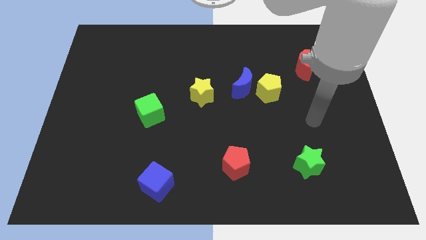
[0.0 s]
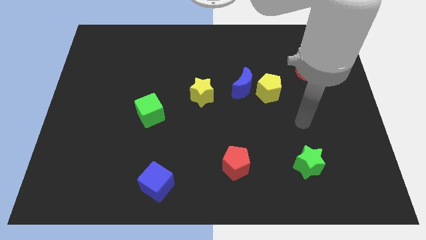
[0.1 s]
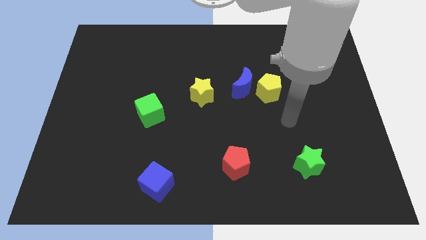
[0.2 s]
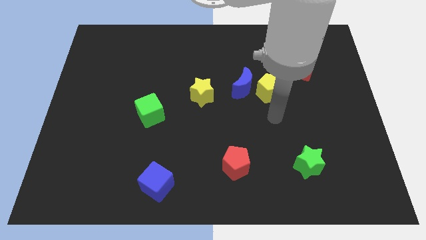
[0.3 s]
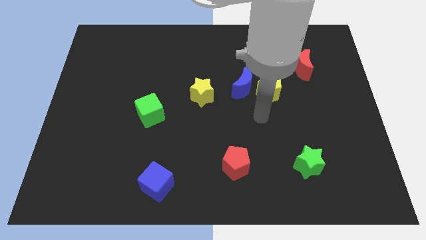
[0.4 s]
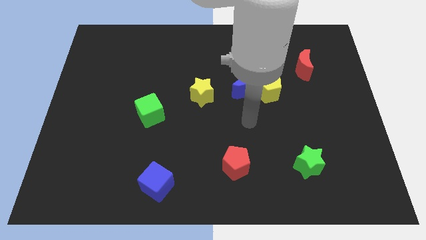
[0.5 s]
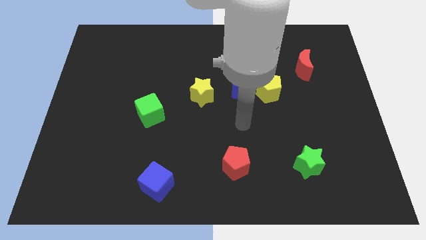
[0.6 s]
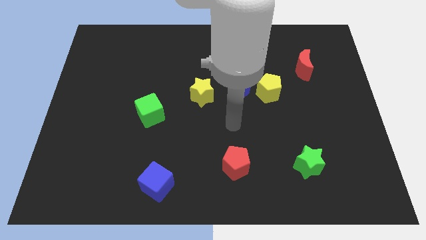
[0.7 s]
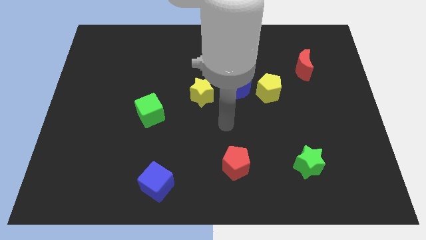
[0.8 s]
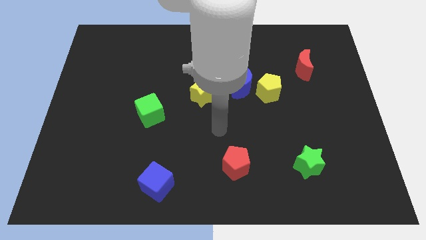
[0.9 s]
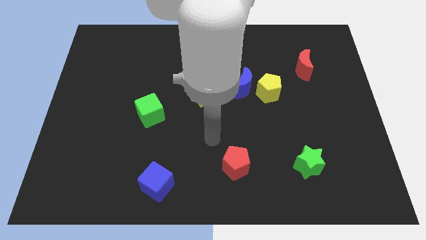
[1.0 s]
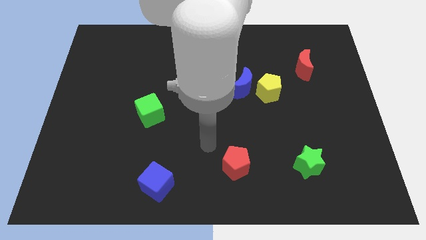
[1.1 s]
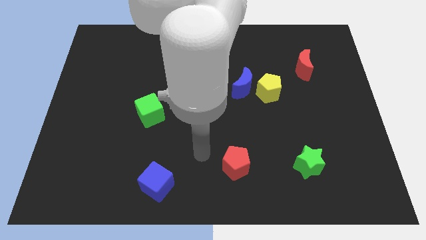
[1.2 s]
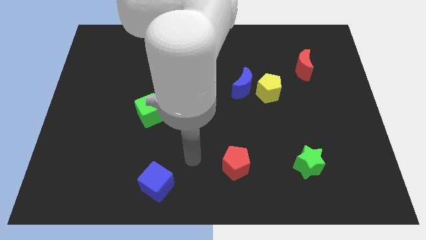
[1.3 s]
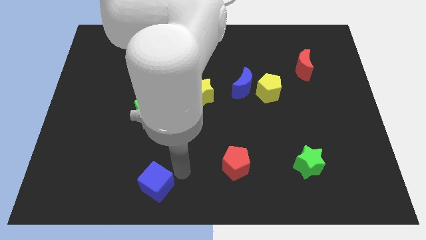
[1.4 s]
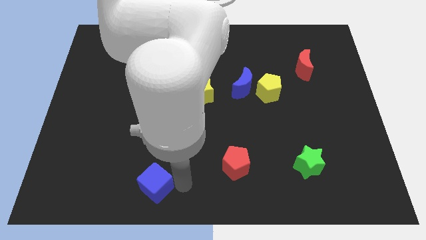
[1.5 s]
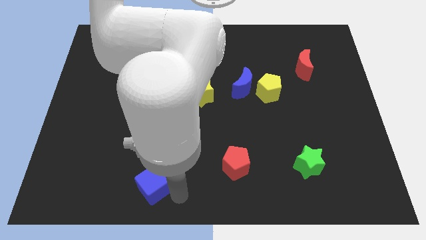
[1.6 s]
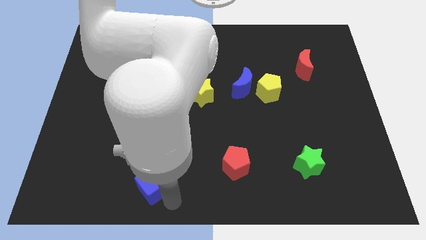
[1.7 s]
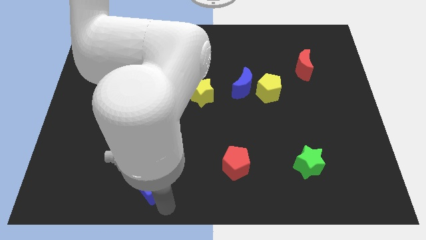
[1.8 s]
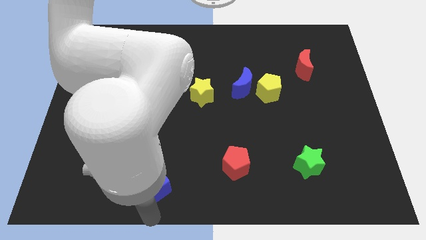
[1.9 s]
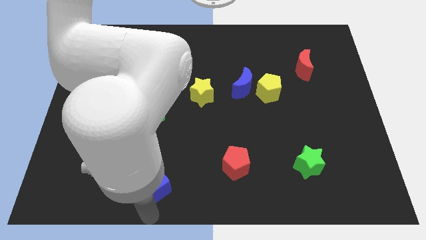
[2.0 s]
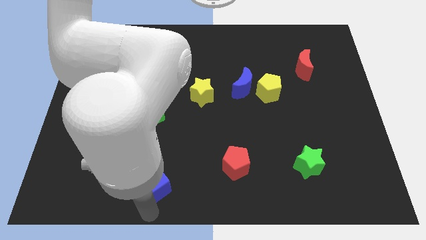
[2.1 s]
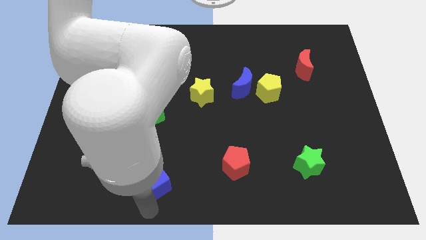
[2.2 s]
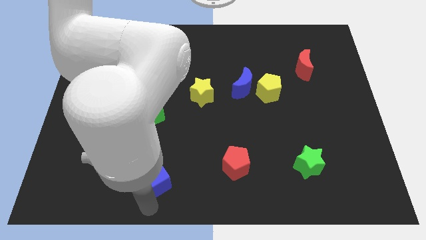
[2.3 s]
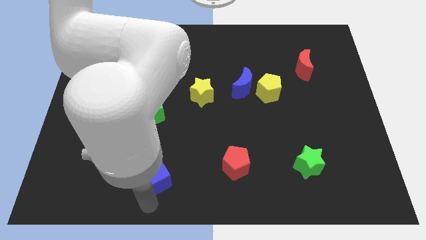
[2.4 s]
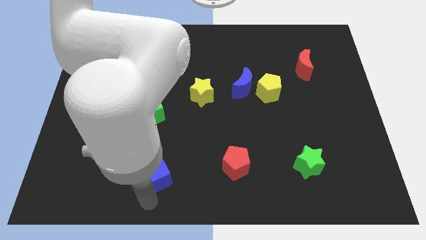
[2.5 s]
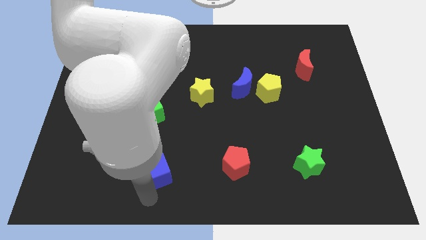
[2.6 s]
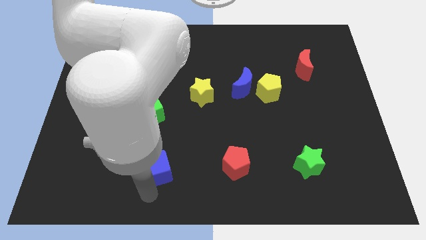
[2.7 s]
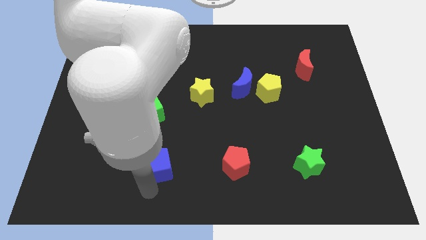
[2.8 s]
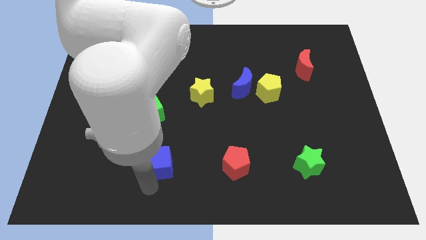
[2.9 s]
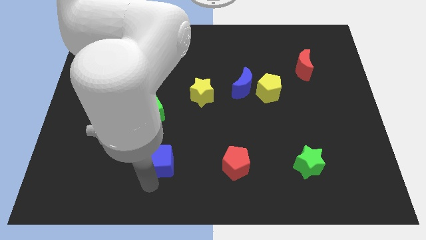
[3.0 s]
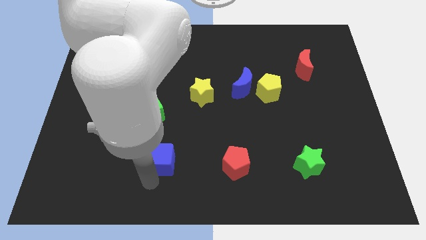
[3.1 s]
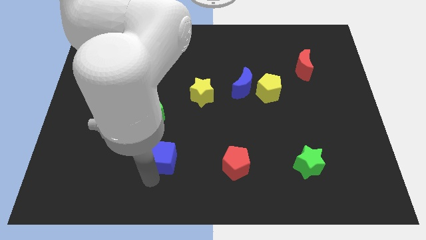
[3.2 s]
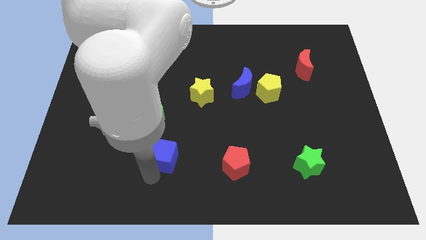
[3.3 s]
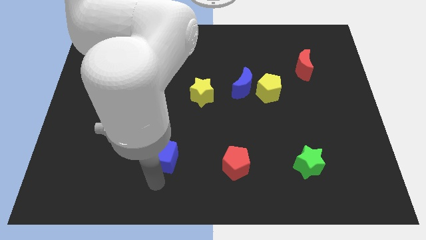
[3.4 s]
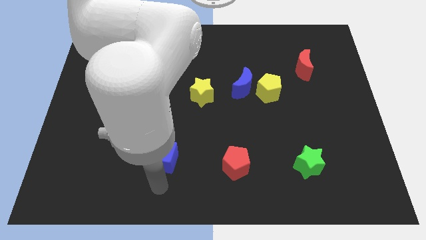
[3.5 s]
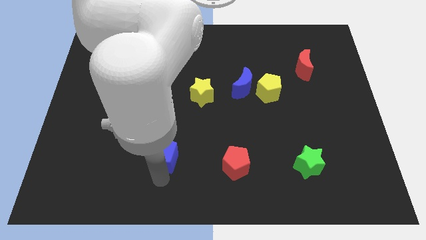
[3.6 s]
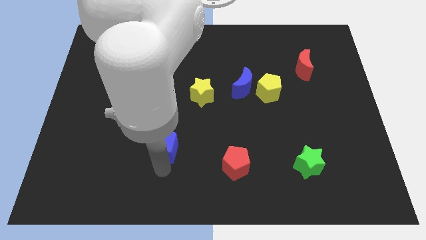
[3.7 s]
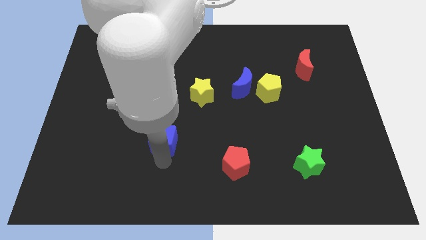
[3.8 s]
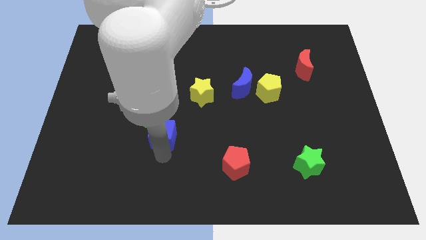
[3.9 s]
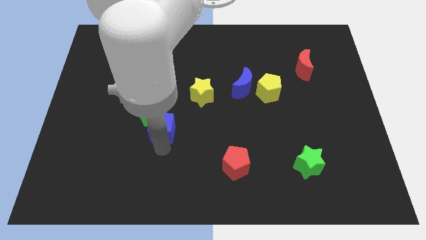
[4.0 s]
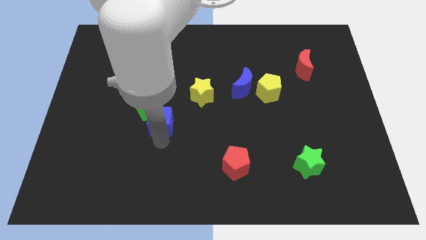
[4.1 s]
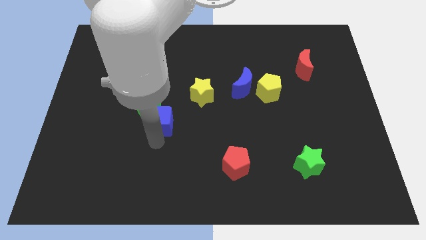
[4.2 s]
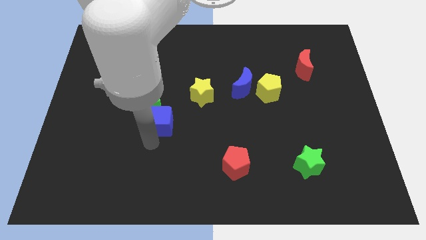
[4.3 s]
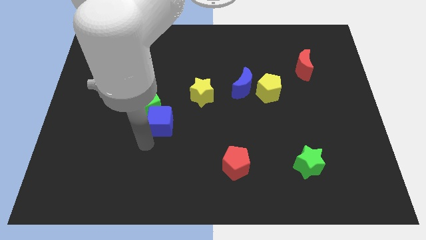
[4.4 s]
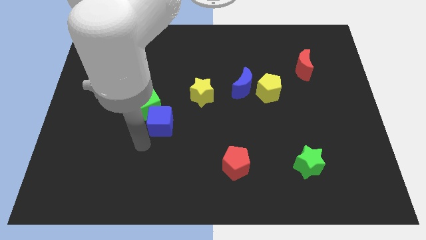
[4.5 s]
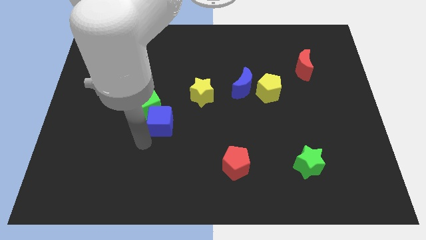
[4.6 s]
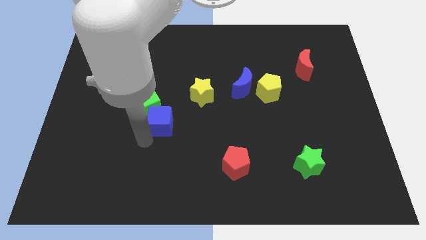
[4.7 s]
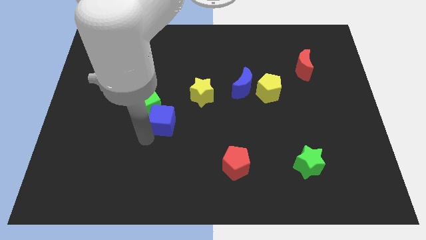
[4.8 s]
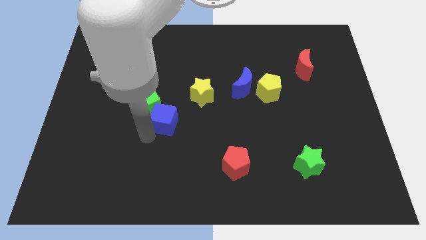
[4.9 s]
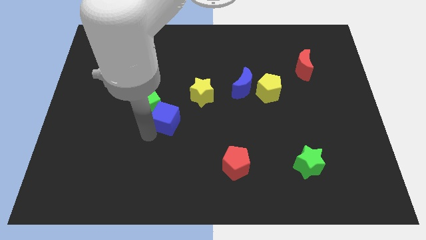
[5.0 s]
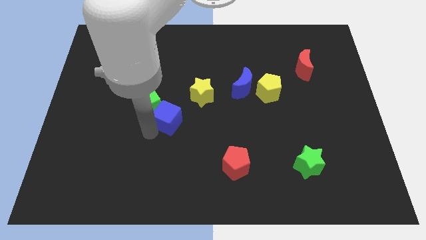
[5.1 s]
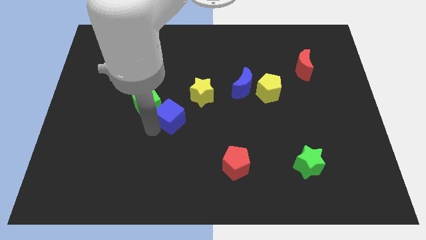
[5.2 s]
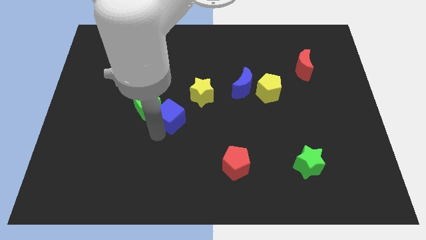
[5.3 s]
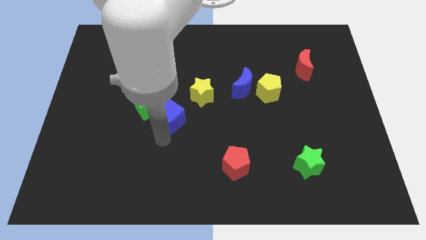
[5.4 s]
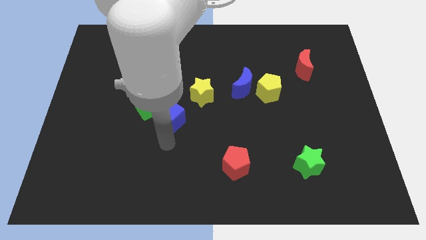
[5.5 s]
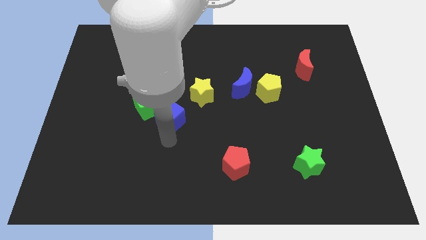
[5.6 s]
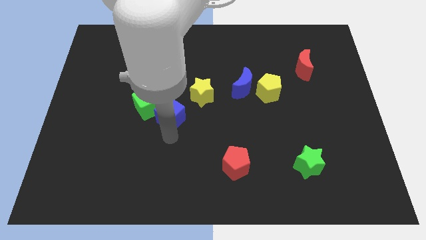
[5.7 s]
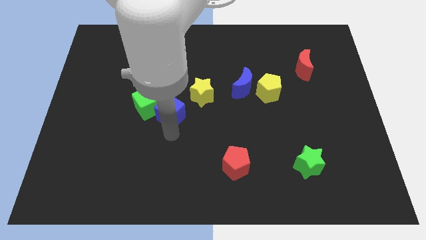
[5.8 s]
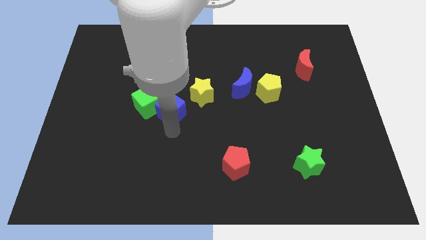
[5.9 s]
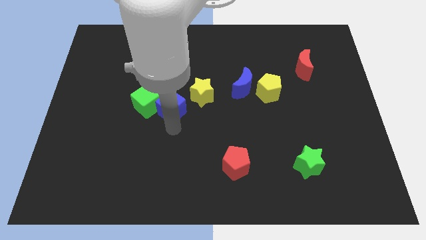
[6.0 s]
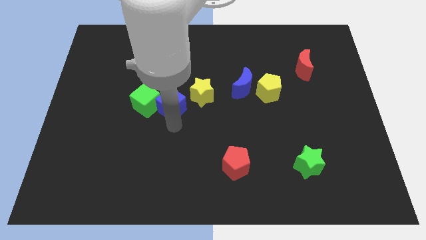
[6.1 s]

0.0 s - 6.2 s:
push the blue cube up

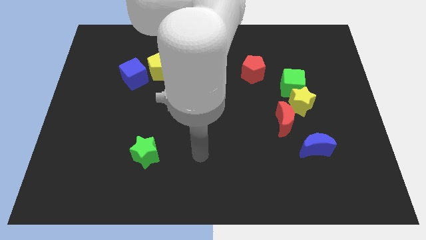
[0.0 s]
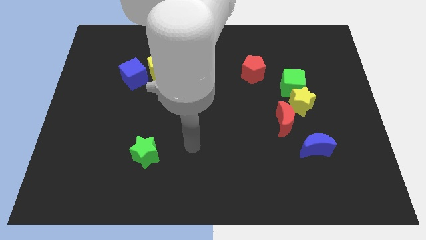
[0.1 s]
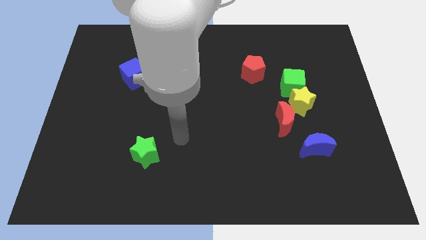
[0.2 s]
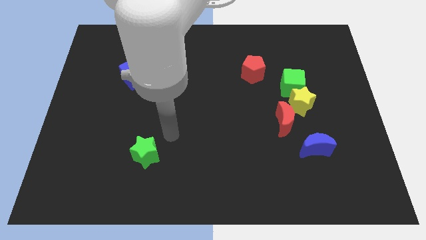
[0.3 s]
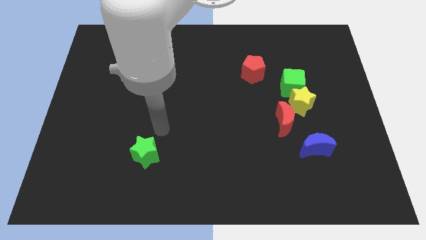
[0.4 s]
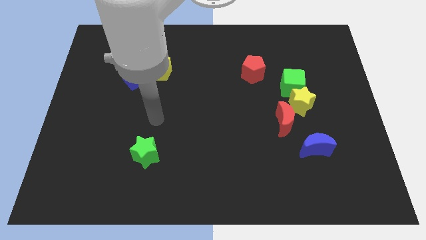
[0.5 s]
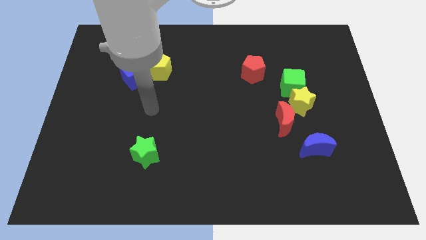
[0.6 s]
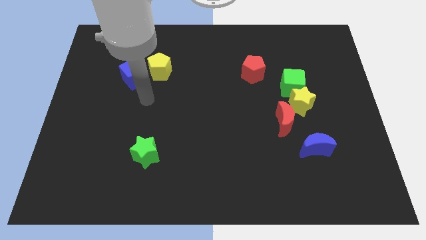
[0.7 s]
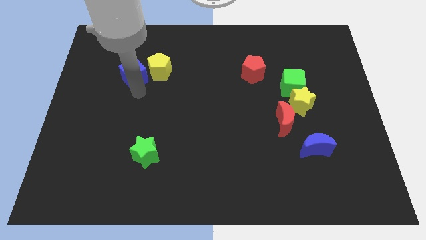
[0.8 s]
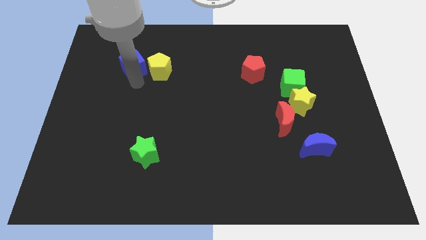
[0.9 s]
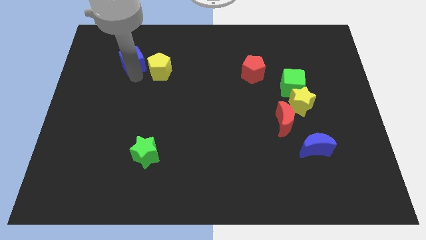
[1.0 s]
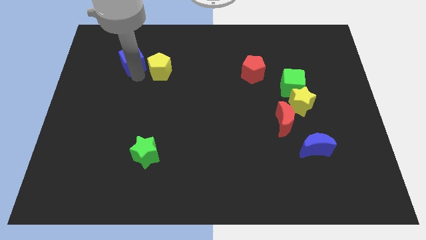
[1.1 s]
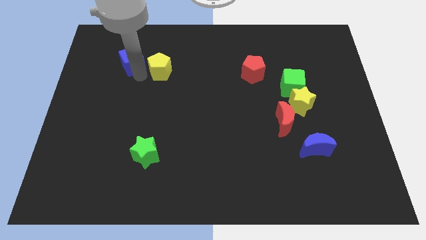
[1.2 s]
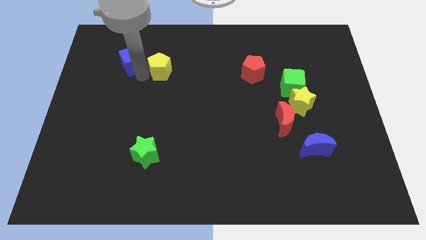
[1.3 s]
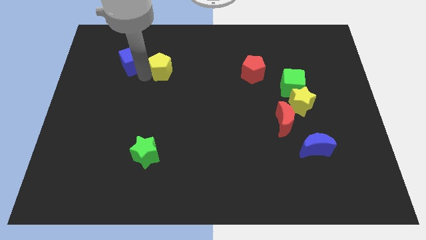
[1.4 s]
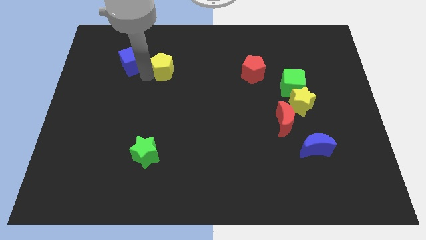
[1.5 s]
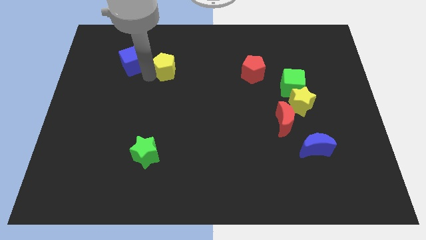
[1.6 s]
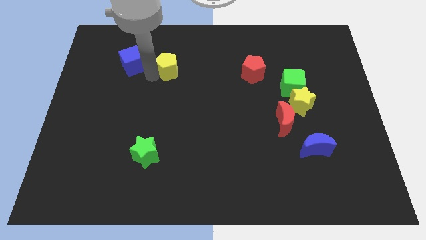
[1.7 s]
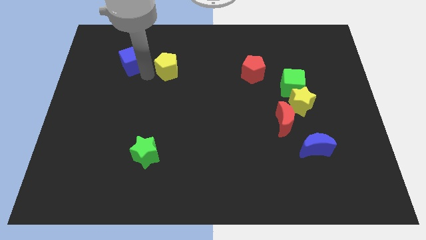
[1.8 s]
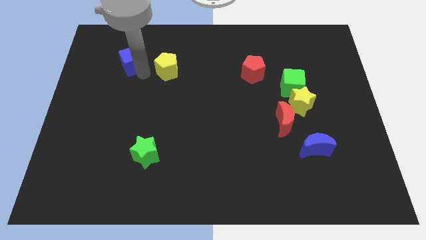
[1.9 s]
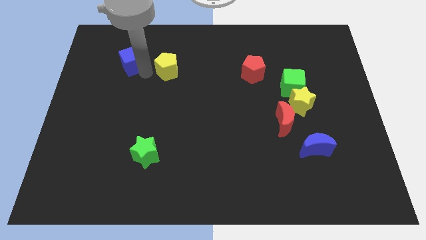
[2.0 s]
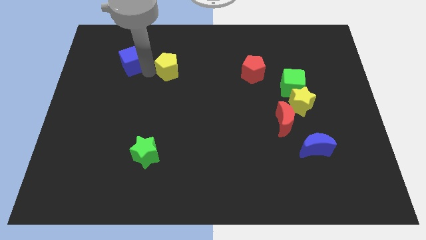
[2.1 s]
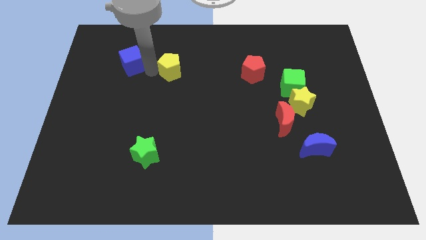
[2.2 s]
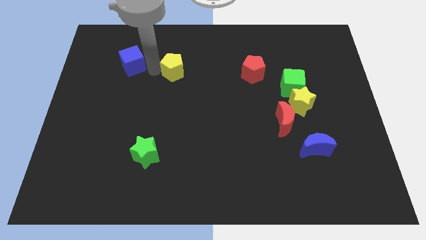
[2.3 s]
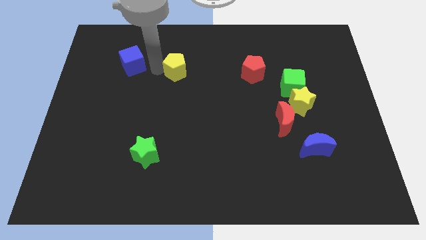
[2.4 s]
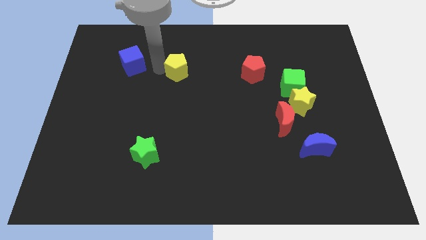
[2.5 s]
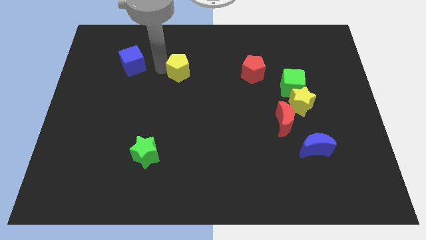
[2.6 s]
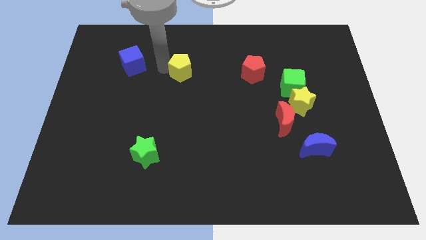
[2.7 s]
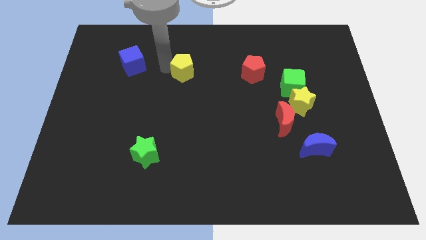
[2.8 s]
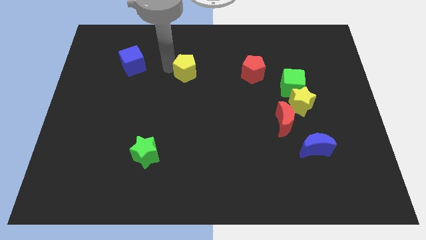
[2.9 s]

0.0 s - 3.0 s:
slide the yellow pentagon to the right a bit
